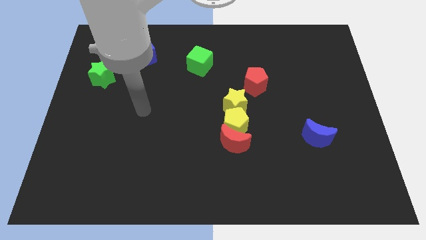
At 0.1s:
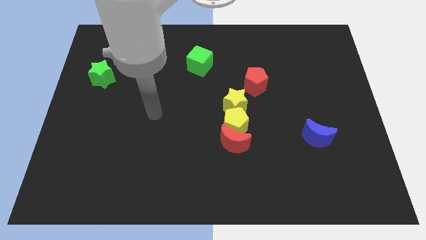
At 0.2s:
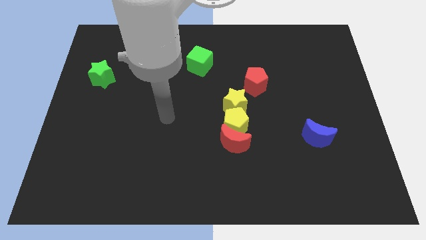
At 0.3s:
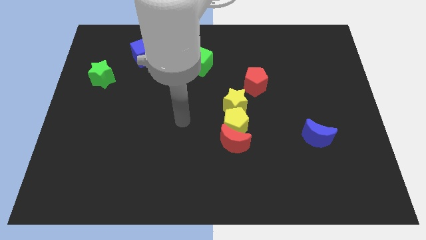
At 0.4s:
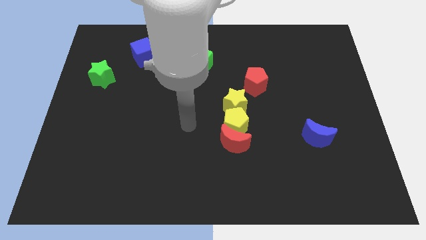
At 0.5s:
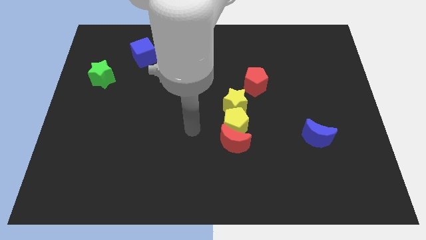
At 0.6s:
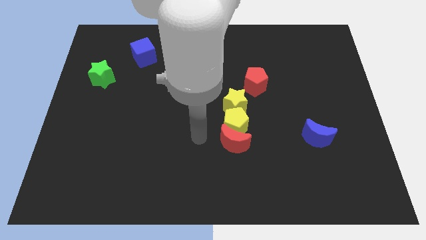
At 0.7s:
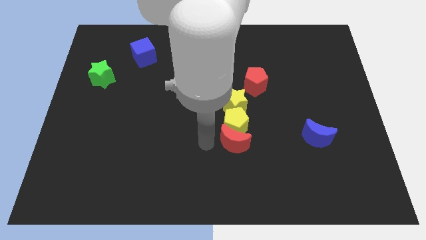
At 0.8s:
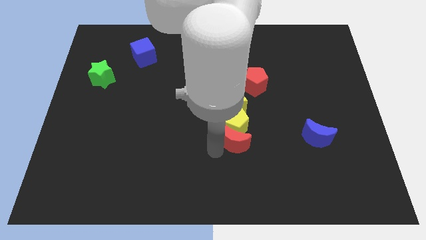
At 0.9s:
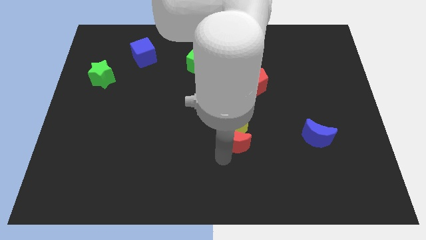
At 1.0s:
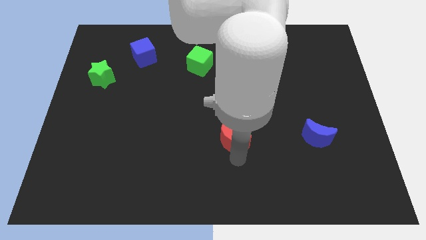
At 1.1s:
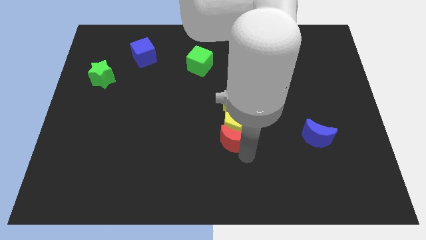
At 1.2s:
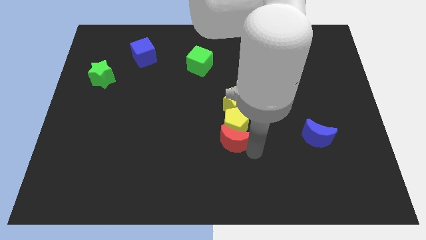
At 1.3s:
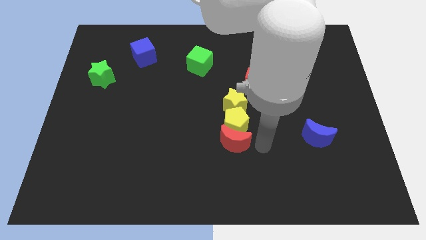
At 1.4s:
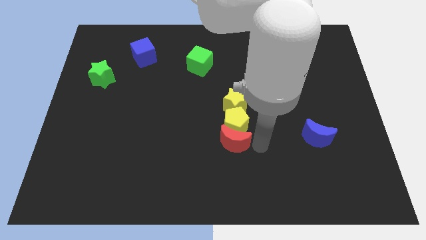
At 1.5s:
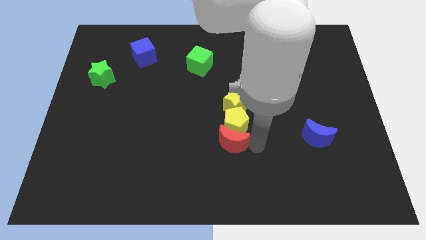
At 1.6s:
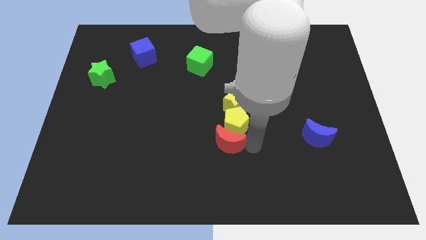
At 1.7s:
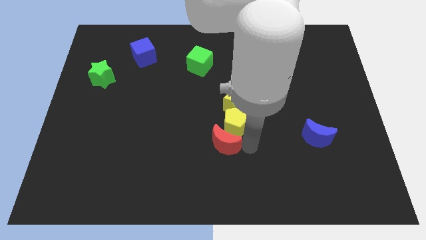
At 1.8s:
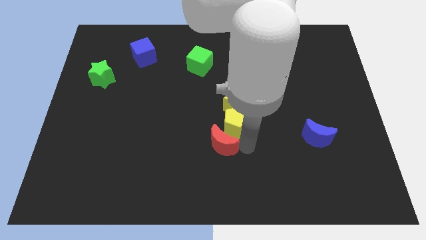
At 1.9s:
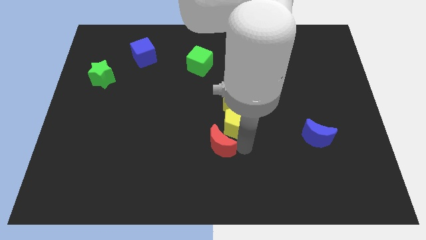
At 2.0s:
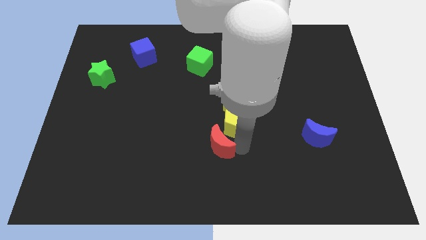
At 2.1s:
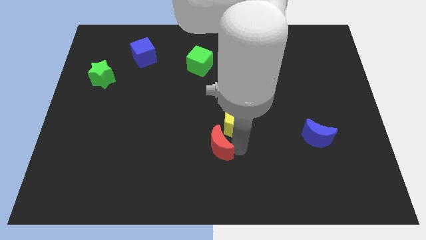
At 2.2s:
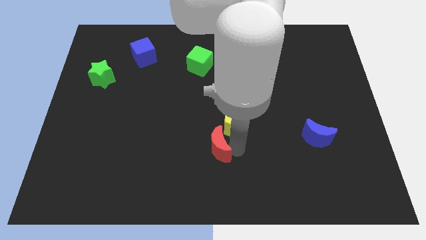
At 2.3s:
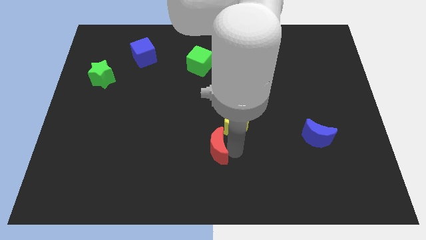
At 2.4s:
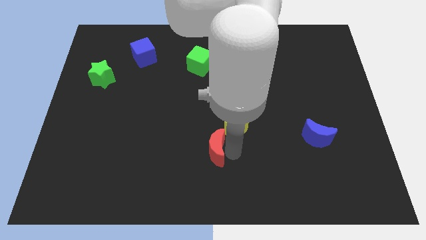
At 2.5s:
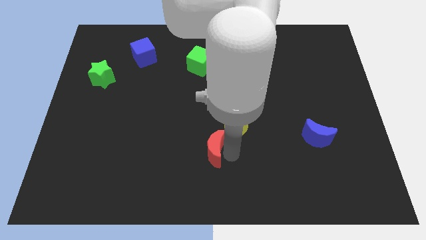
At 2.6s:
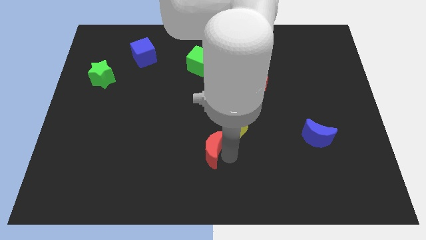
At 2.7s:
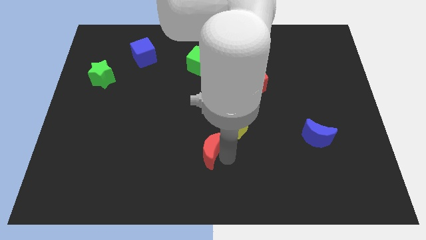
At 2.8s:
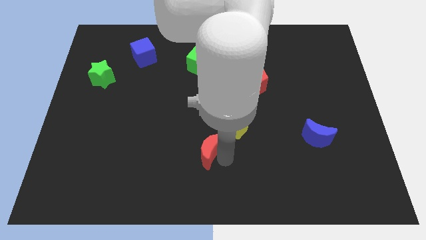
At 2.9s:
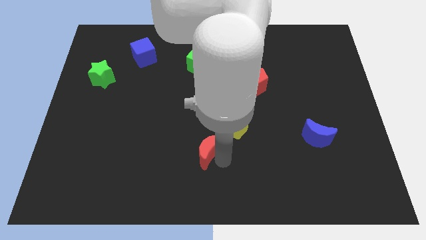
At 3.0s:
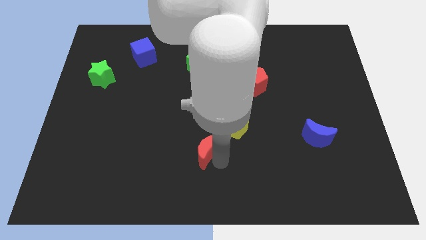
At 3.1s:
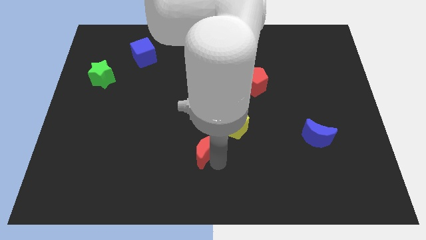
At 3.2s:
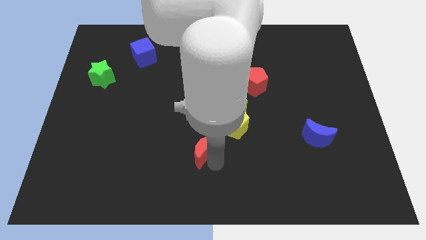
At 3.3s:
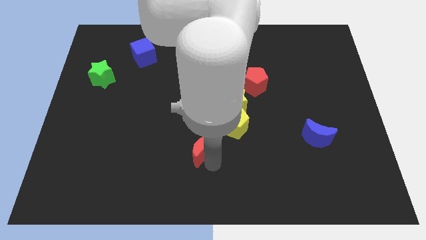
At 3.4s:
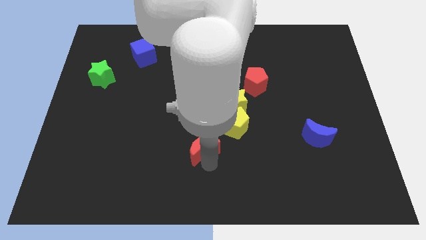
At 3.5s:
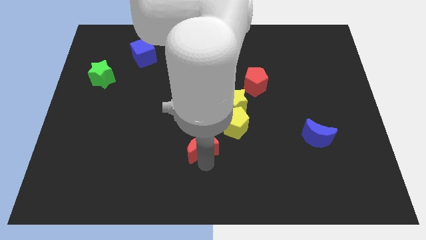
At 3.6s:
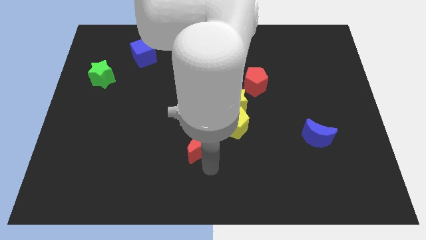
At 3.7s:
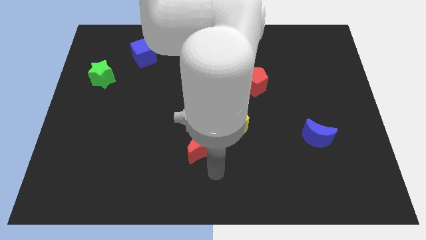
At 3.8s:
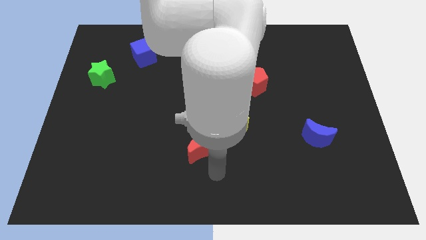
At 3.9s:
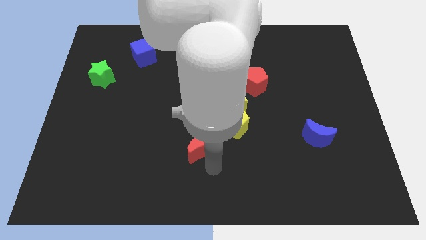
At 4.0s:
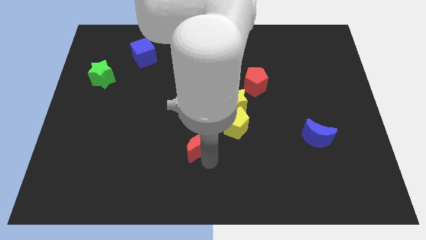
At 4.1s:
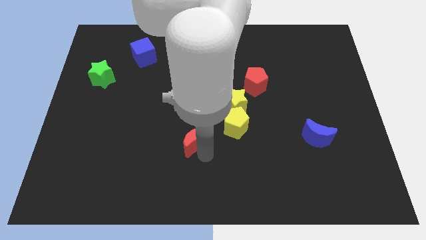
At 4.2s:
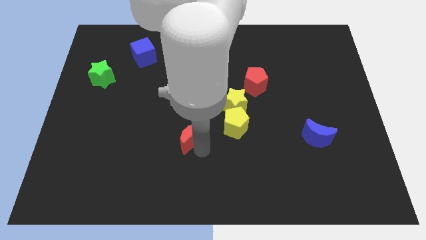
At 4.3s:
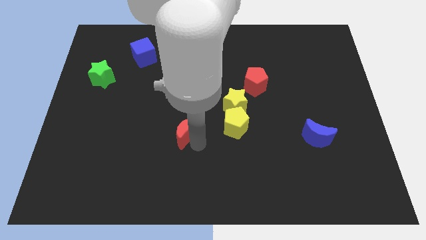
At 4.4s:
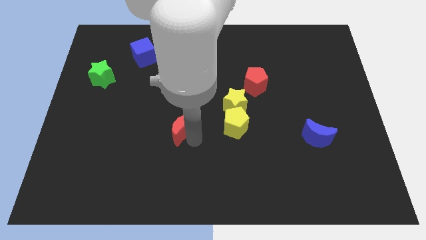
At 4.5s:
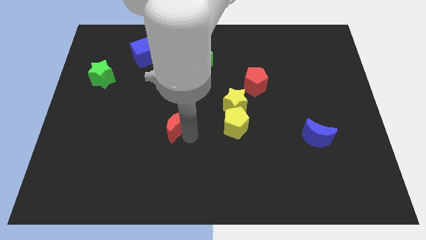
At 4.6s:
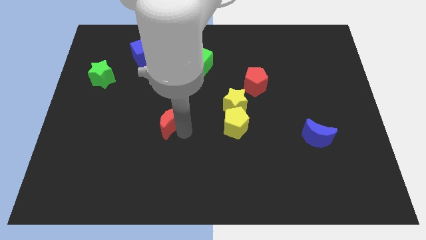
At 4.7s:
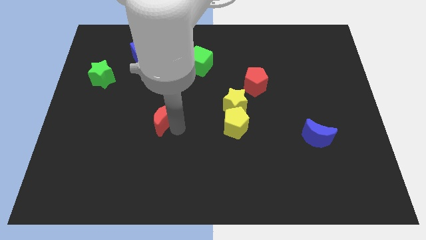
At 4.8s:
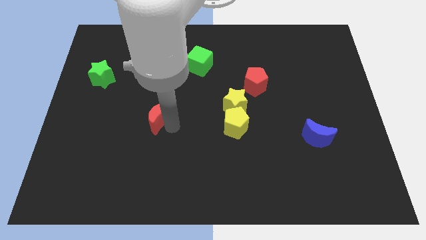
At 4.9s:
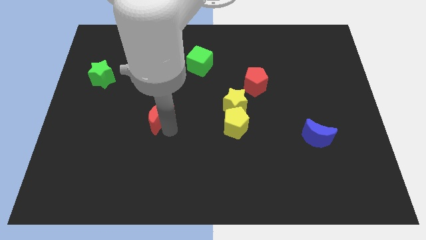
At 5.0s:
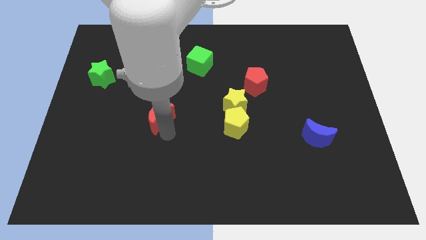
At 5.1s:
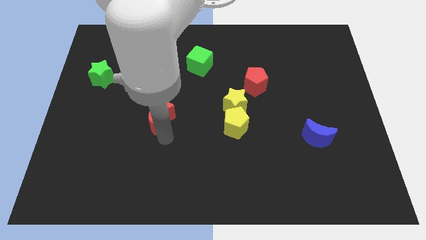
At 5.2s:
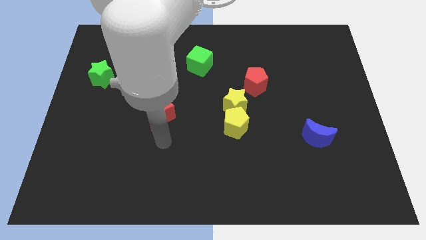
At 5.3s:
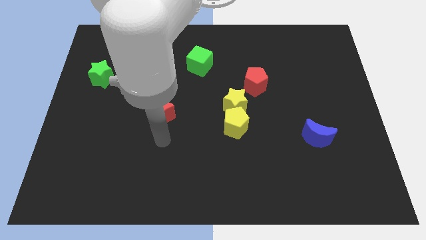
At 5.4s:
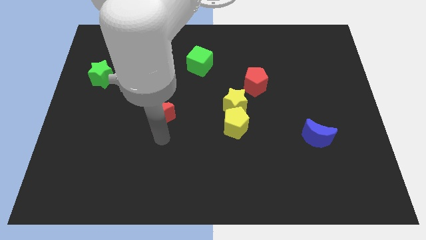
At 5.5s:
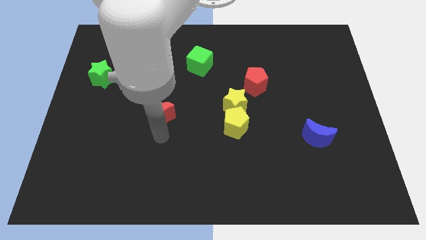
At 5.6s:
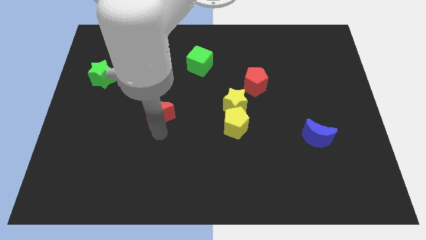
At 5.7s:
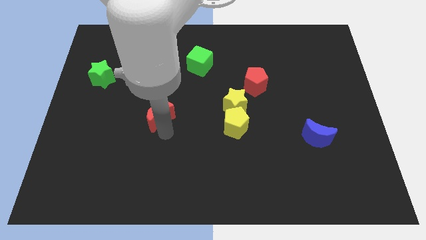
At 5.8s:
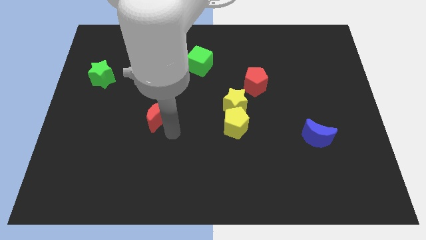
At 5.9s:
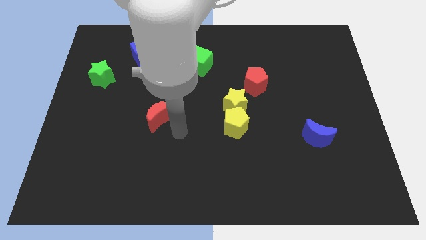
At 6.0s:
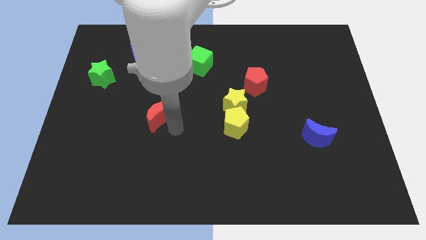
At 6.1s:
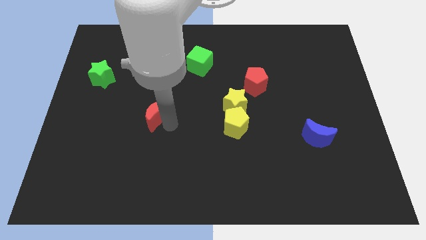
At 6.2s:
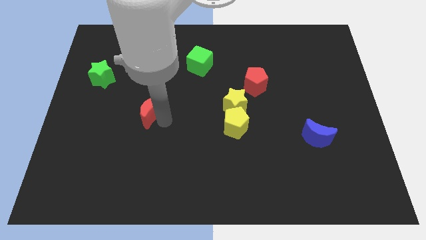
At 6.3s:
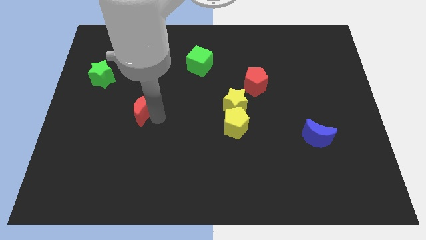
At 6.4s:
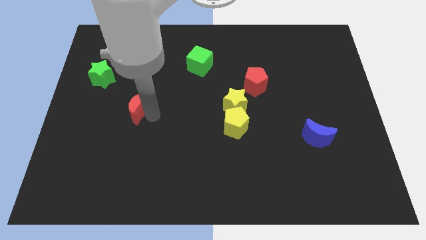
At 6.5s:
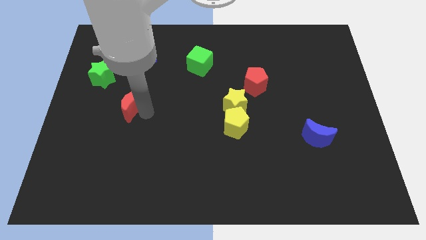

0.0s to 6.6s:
put the red moon to the bottom right of the green star

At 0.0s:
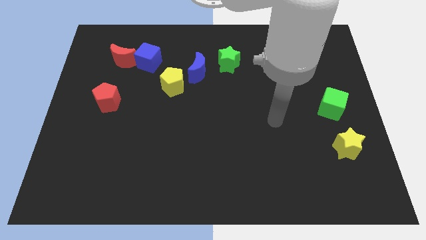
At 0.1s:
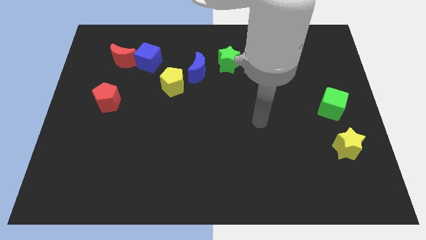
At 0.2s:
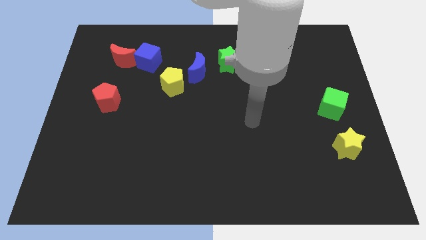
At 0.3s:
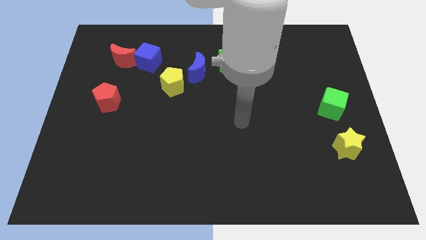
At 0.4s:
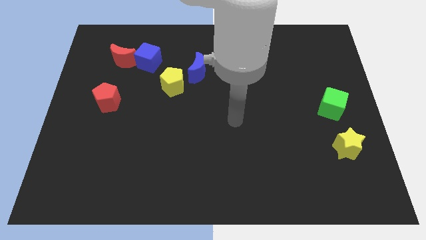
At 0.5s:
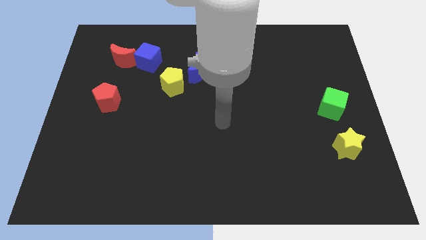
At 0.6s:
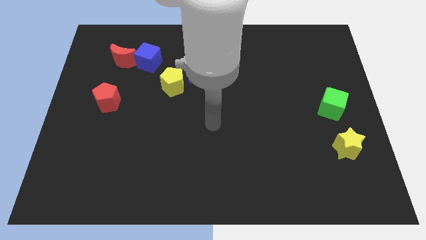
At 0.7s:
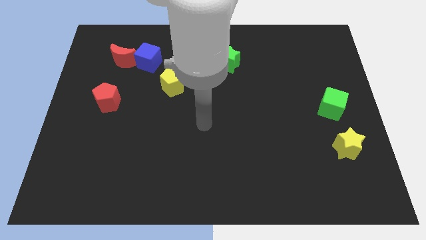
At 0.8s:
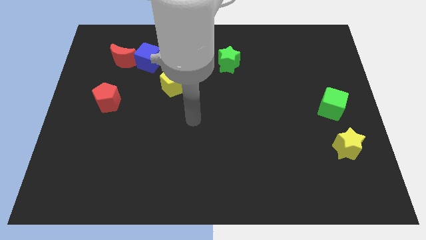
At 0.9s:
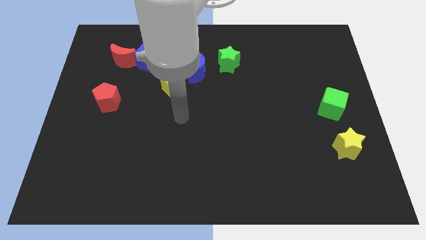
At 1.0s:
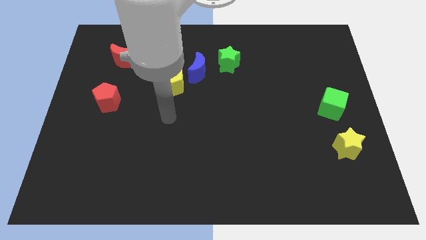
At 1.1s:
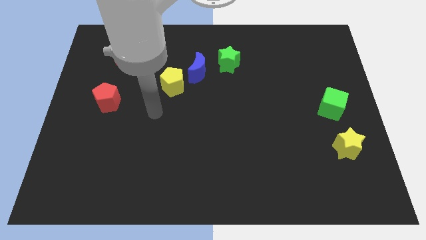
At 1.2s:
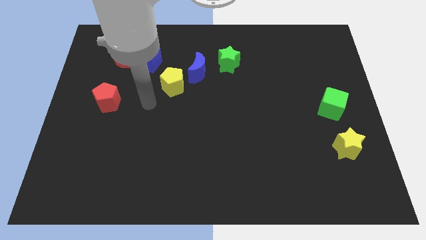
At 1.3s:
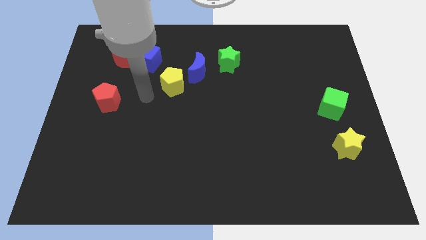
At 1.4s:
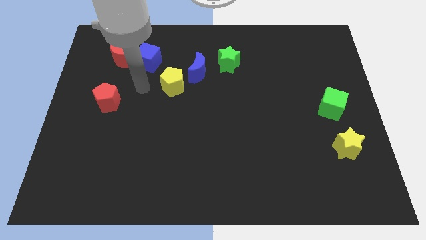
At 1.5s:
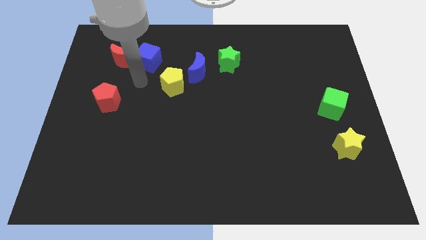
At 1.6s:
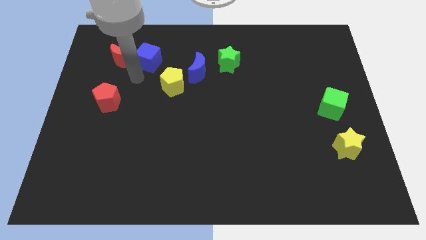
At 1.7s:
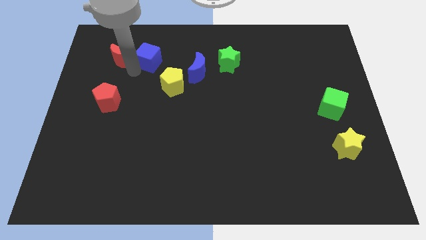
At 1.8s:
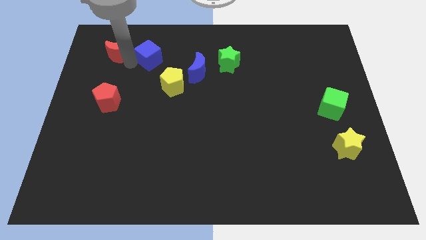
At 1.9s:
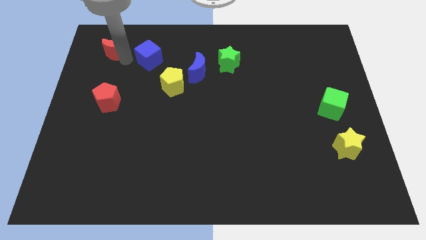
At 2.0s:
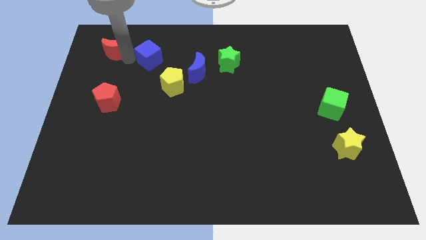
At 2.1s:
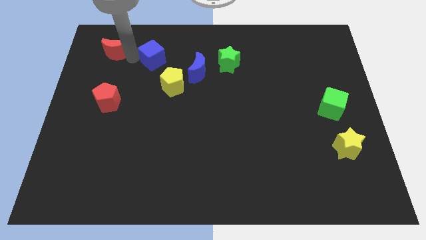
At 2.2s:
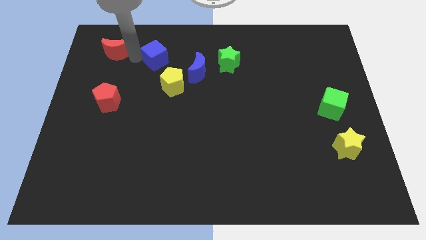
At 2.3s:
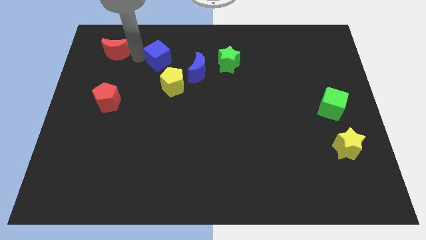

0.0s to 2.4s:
slide the blue cube diagonally up and to the left of the blue moon
